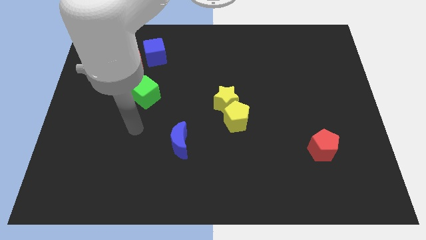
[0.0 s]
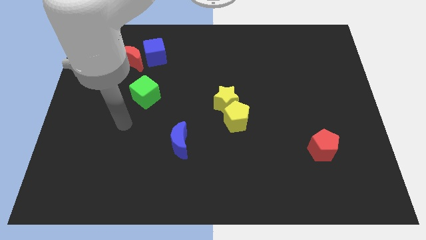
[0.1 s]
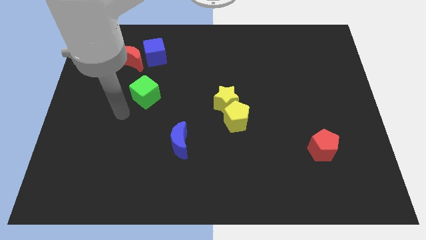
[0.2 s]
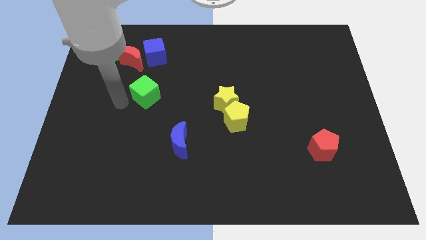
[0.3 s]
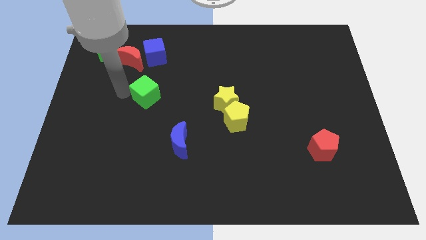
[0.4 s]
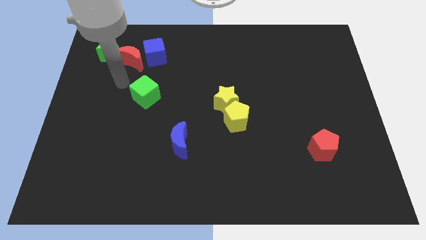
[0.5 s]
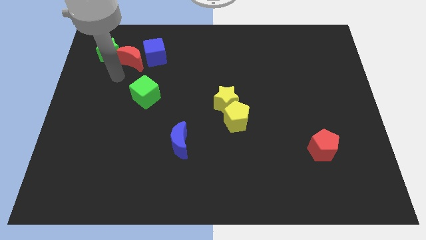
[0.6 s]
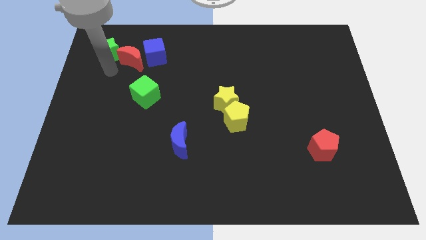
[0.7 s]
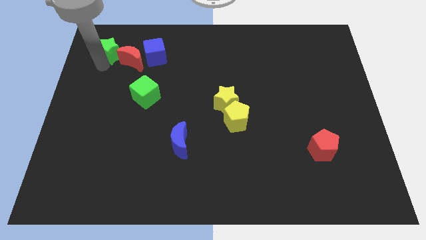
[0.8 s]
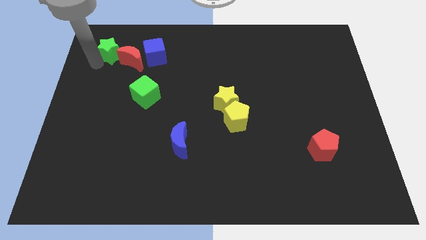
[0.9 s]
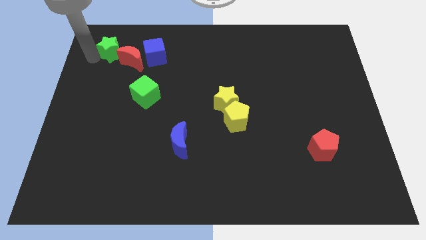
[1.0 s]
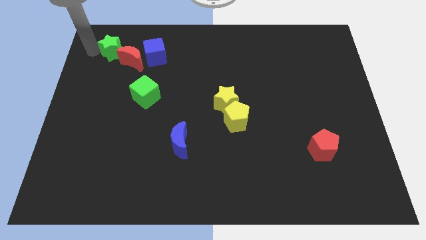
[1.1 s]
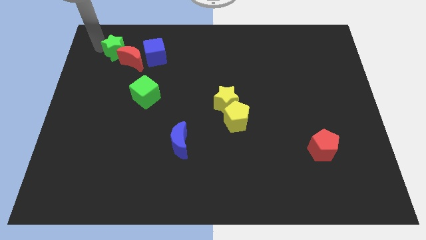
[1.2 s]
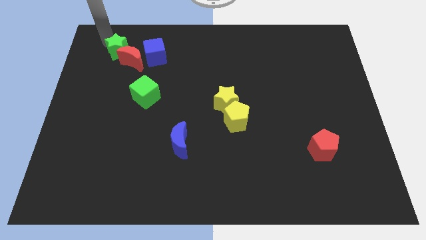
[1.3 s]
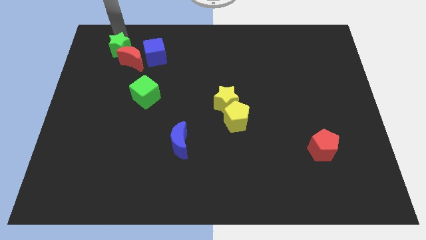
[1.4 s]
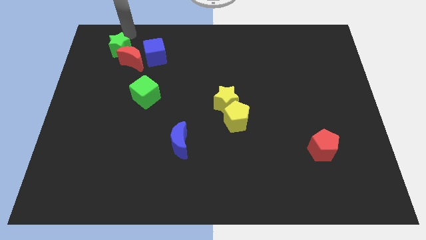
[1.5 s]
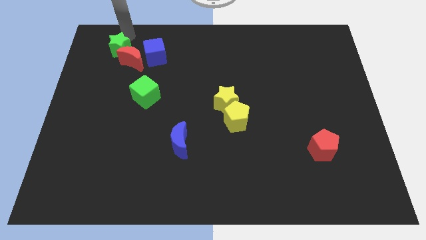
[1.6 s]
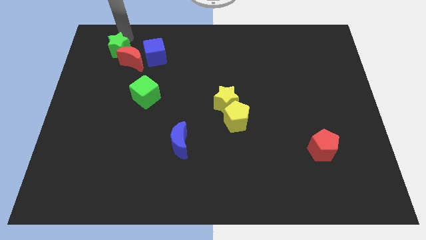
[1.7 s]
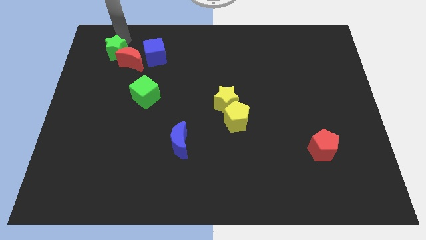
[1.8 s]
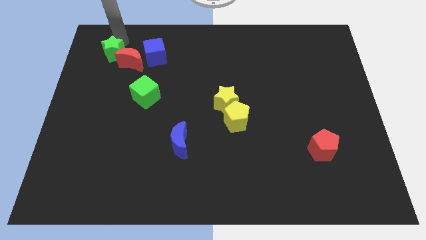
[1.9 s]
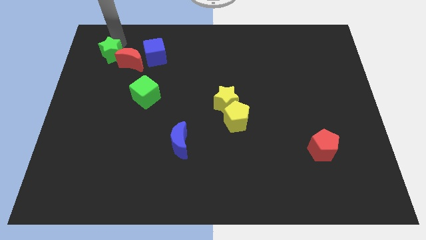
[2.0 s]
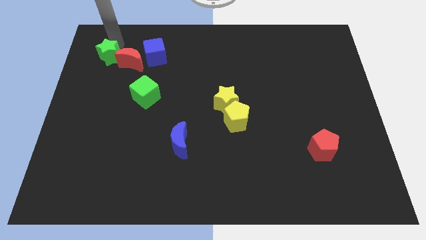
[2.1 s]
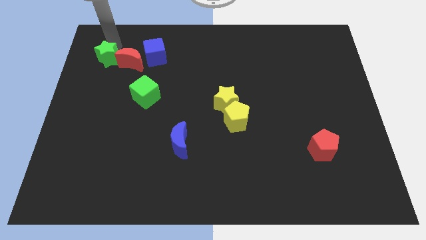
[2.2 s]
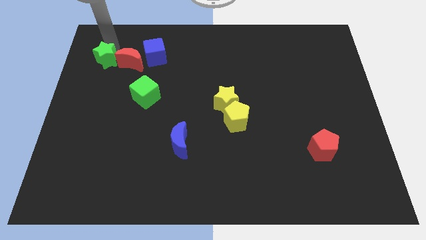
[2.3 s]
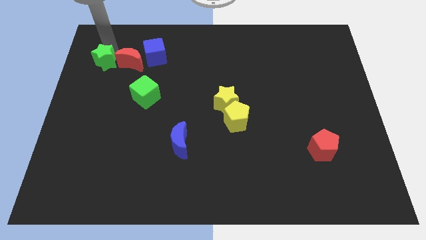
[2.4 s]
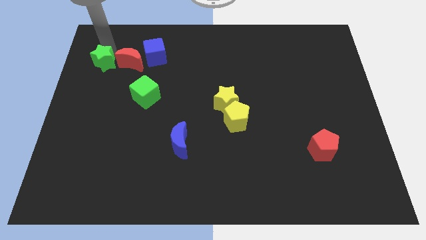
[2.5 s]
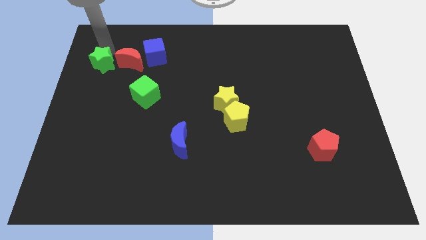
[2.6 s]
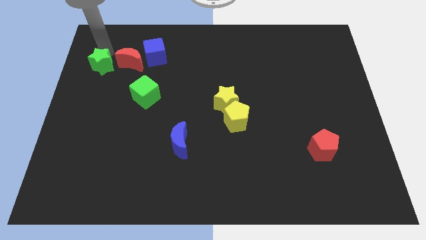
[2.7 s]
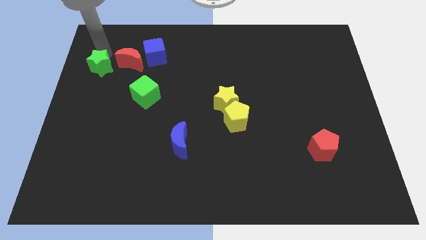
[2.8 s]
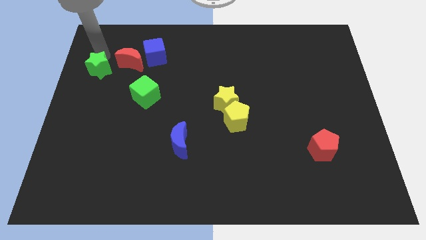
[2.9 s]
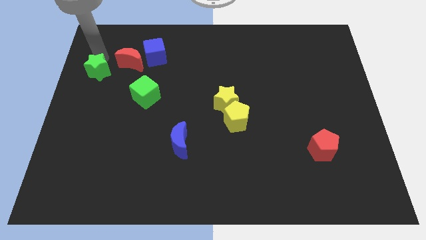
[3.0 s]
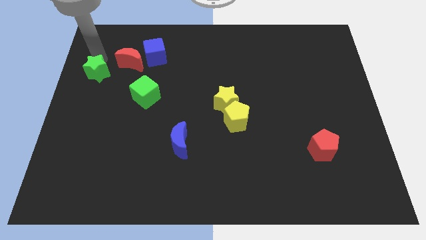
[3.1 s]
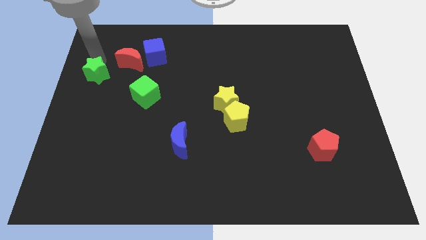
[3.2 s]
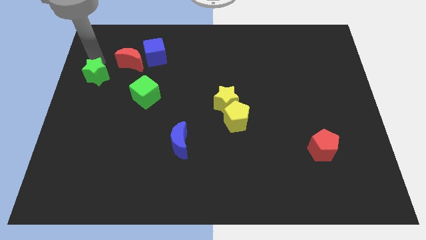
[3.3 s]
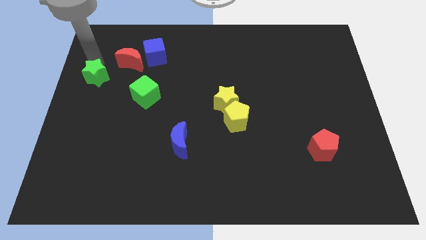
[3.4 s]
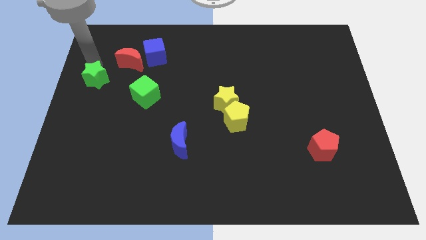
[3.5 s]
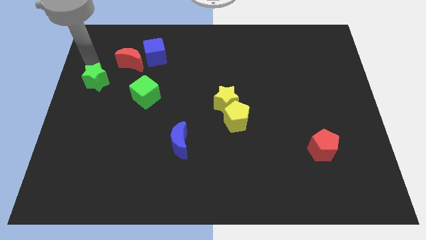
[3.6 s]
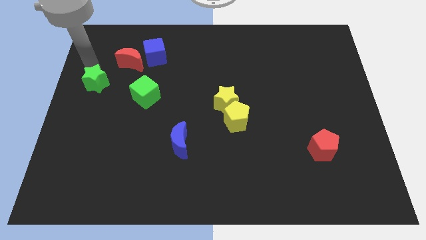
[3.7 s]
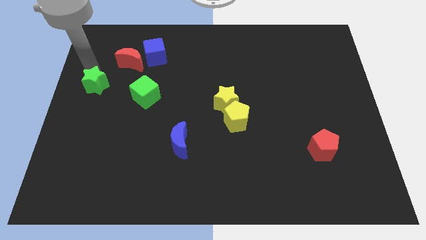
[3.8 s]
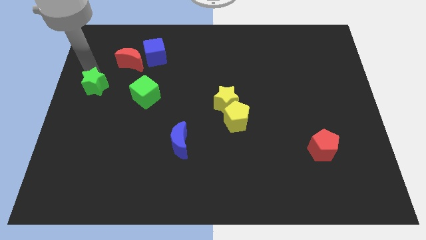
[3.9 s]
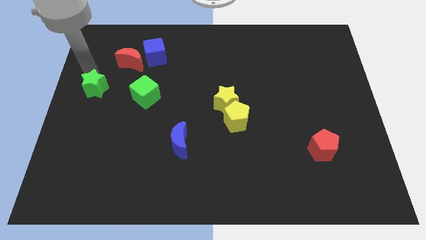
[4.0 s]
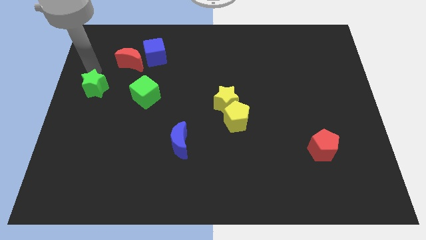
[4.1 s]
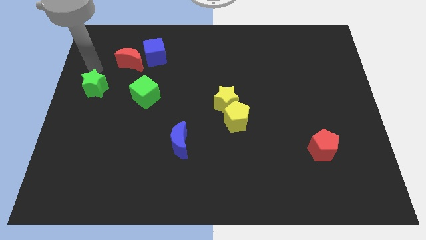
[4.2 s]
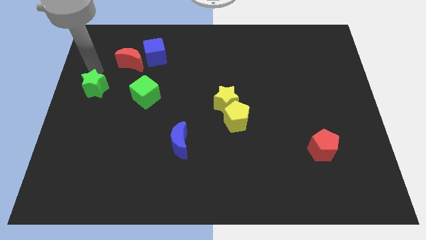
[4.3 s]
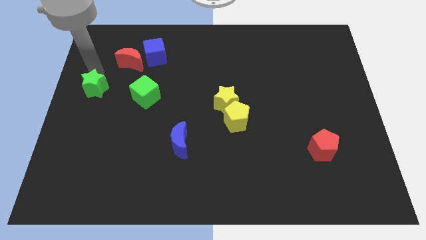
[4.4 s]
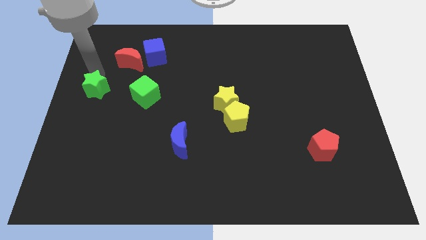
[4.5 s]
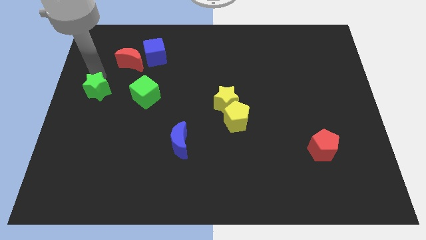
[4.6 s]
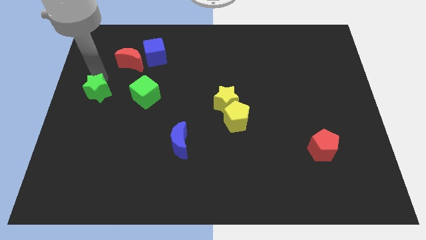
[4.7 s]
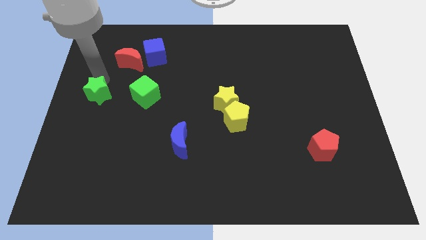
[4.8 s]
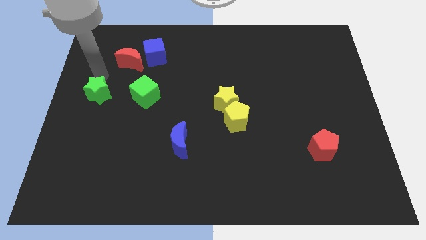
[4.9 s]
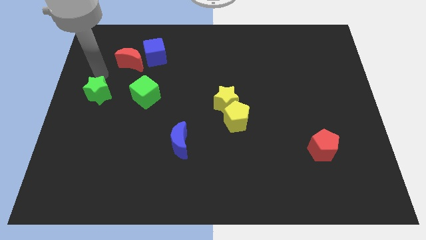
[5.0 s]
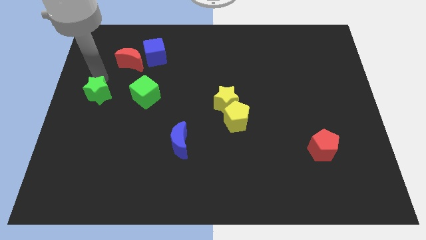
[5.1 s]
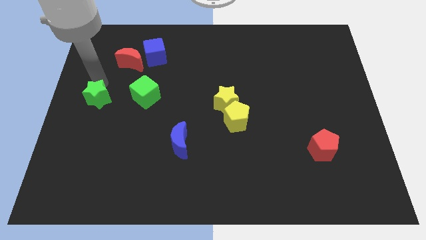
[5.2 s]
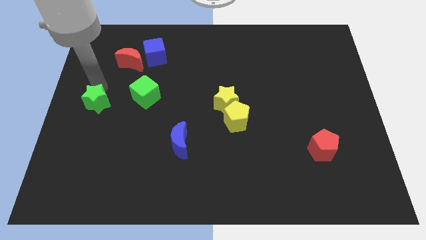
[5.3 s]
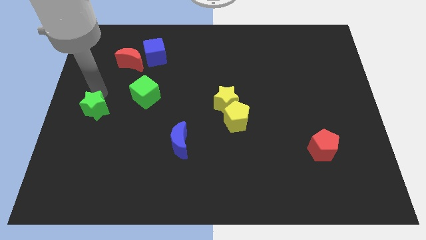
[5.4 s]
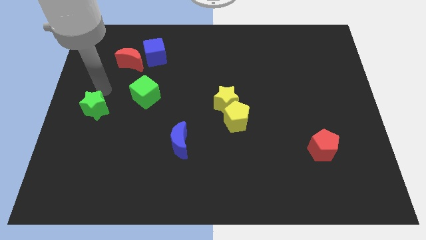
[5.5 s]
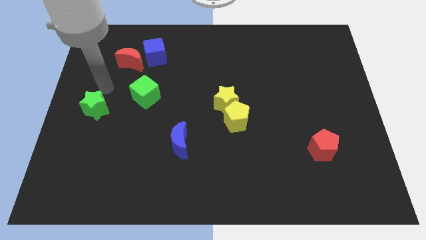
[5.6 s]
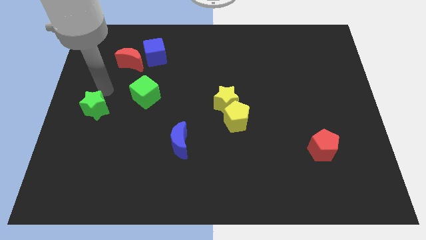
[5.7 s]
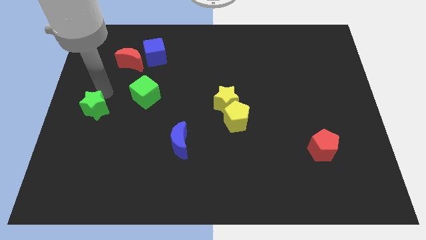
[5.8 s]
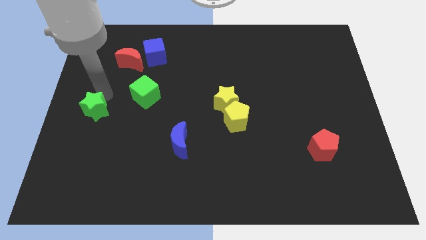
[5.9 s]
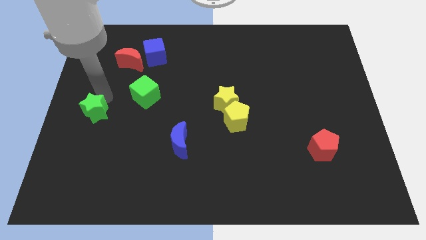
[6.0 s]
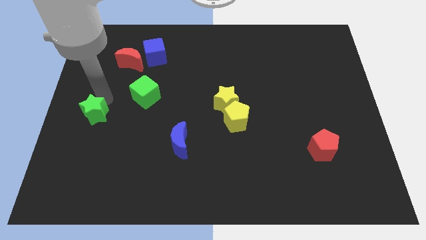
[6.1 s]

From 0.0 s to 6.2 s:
move the green star down

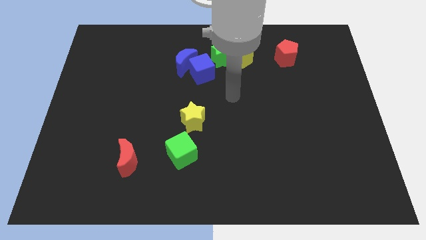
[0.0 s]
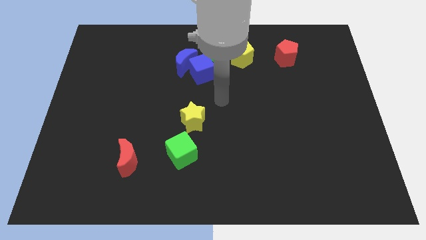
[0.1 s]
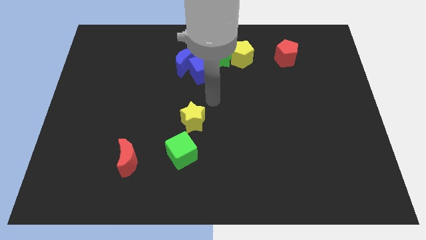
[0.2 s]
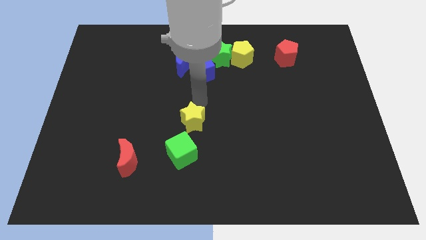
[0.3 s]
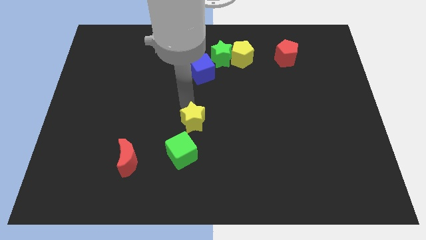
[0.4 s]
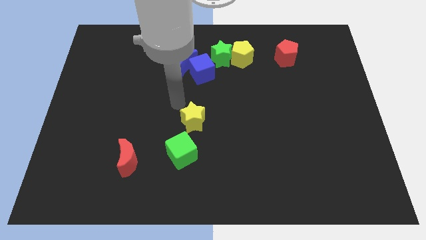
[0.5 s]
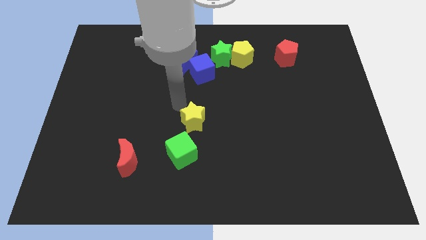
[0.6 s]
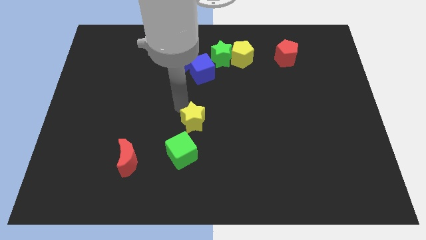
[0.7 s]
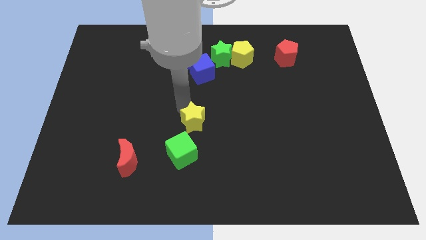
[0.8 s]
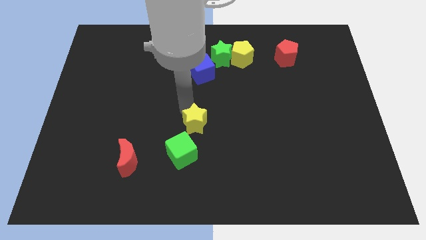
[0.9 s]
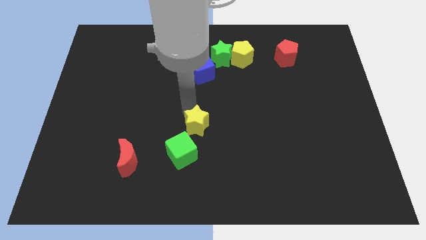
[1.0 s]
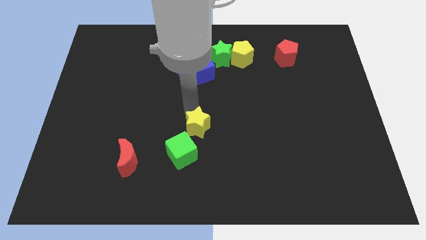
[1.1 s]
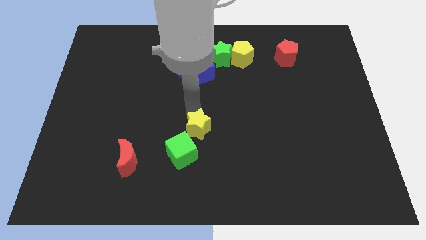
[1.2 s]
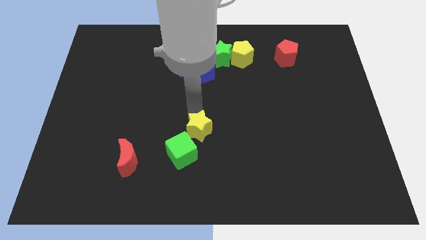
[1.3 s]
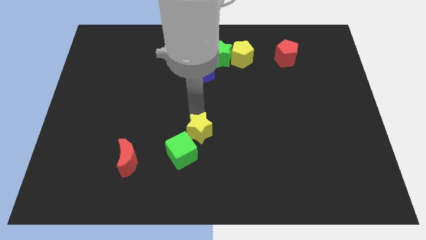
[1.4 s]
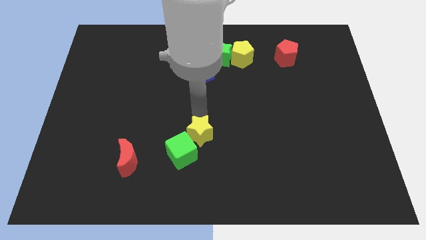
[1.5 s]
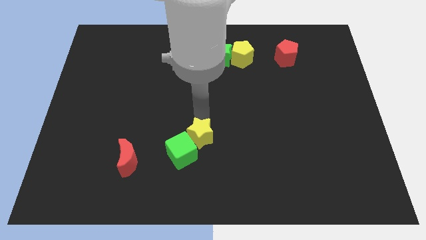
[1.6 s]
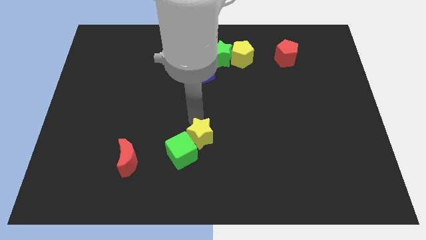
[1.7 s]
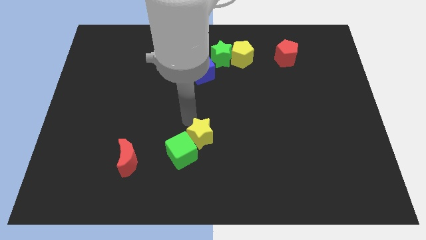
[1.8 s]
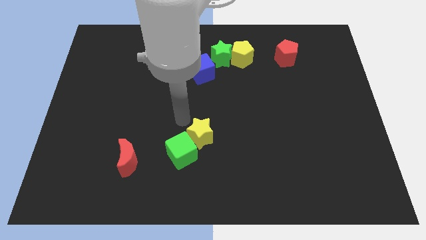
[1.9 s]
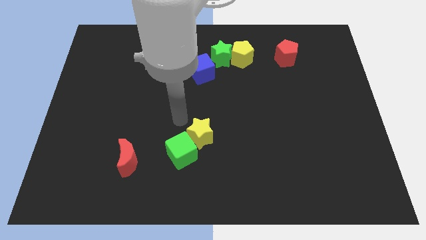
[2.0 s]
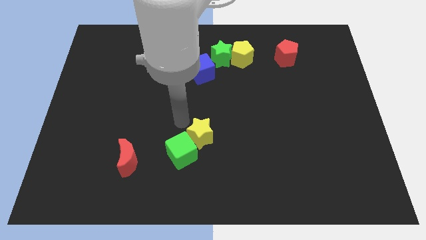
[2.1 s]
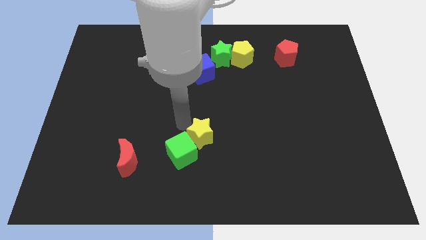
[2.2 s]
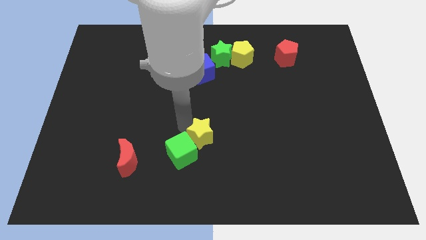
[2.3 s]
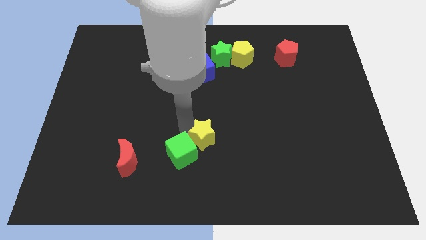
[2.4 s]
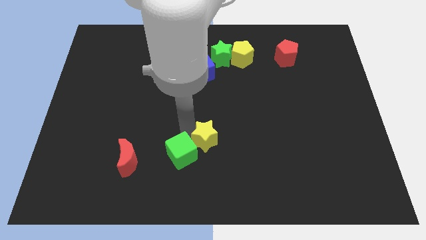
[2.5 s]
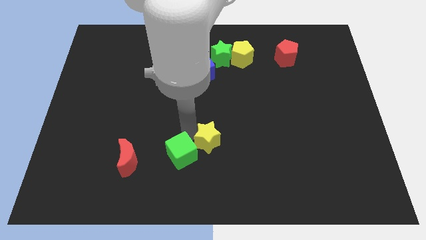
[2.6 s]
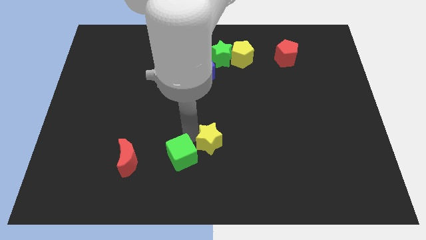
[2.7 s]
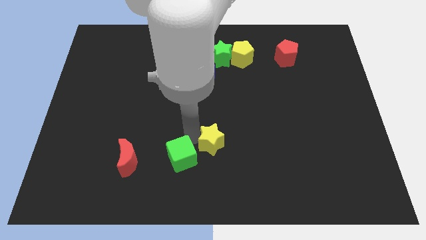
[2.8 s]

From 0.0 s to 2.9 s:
move the yellow star down and to the right a little
